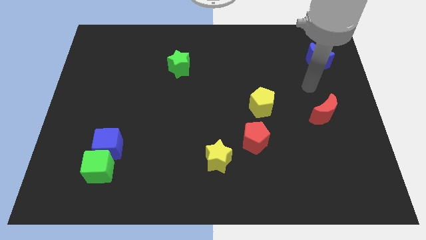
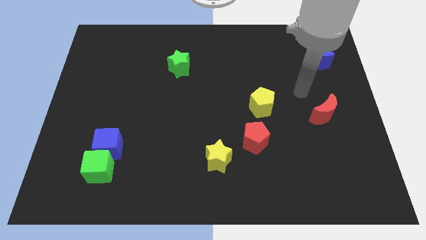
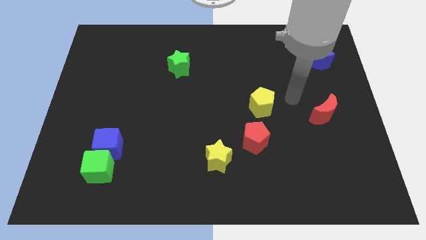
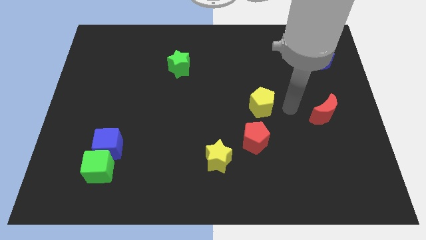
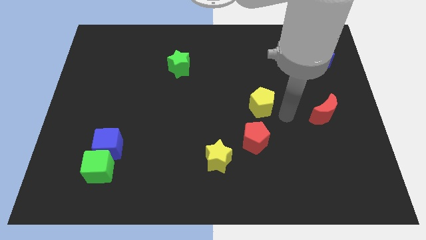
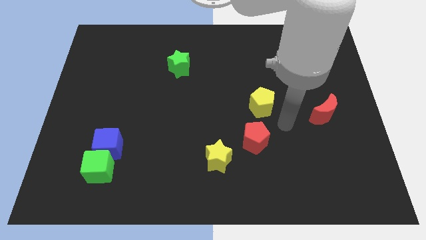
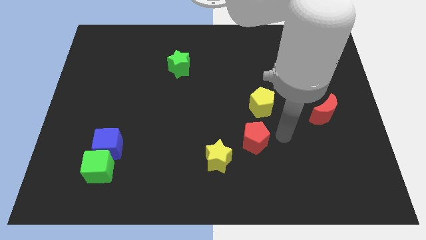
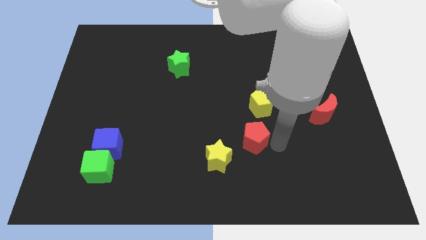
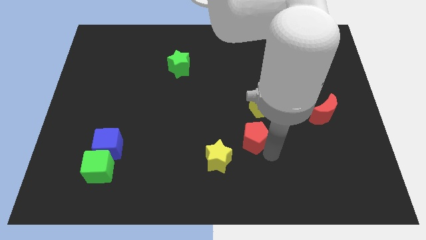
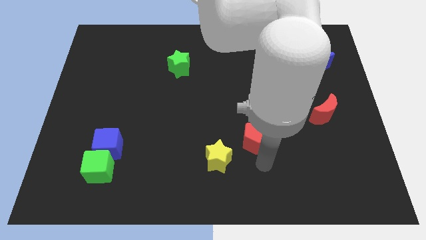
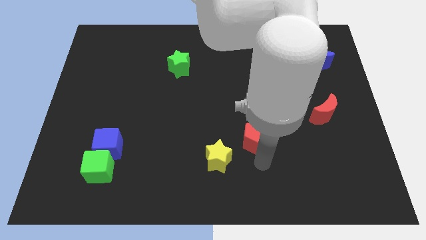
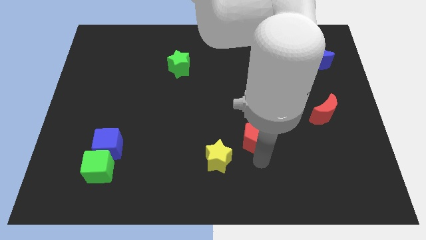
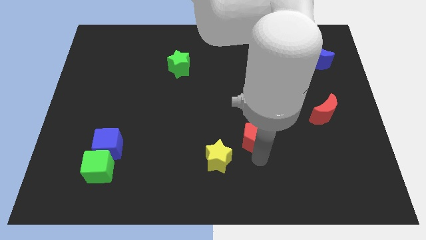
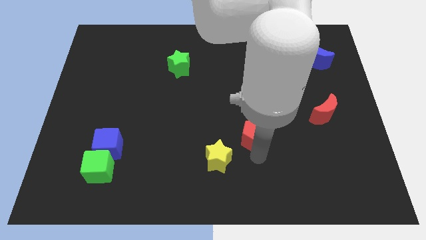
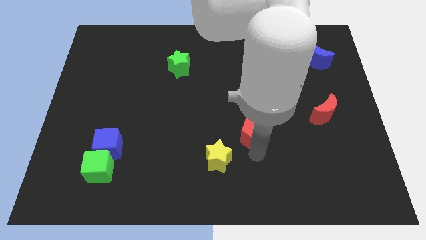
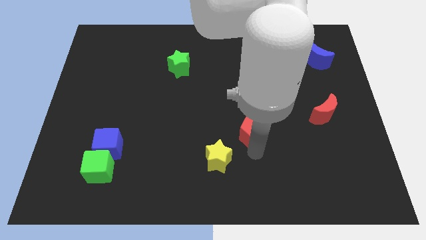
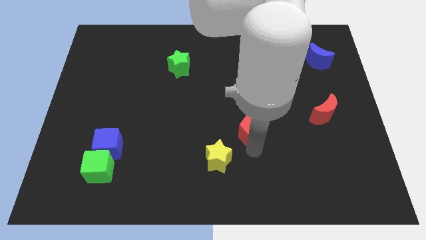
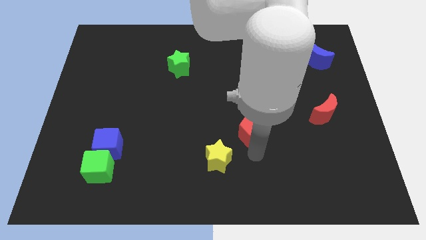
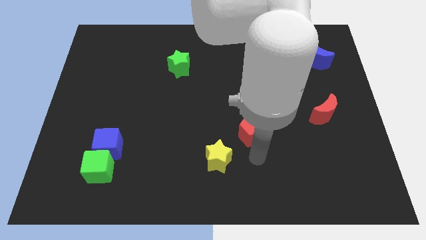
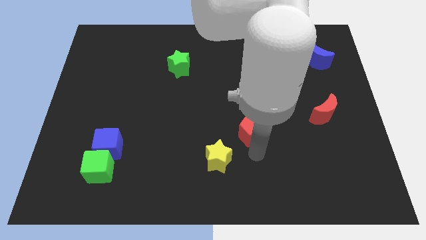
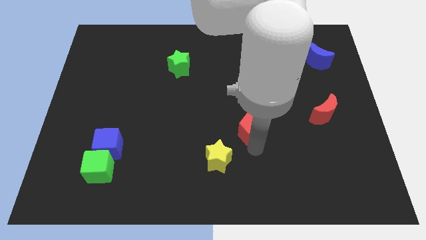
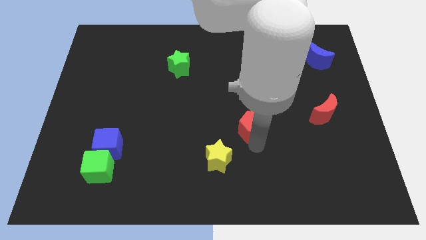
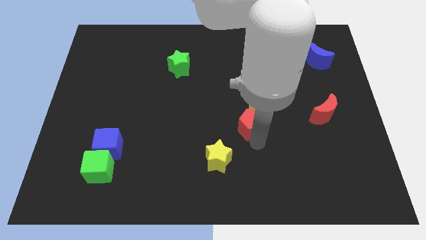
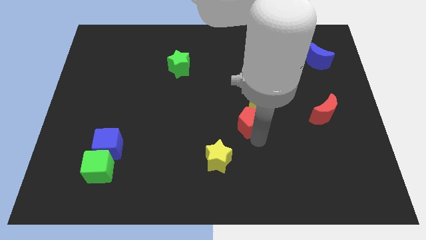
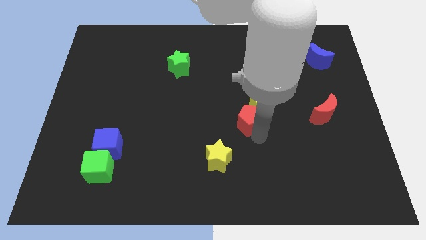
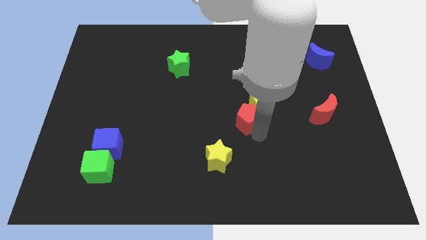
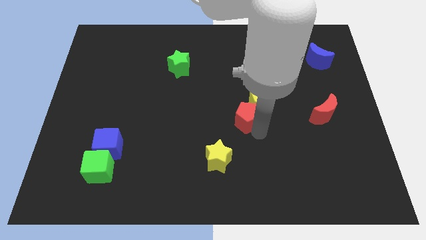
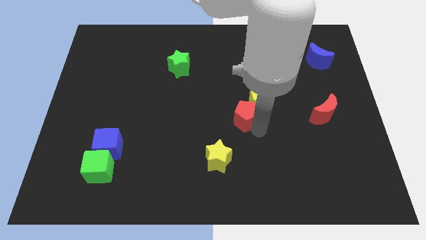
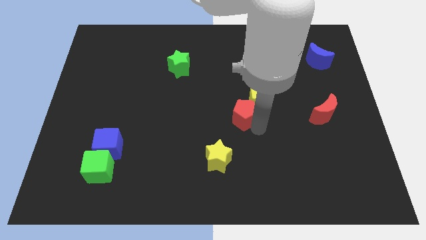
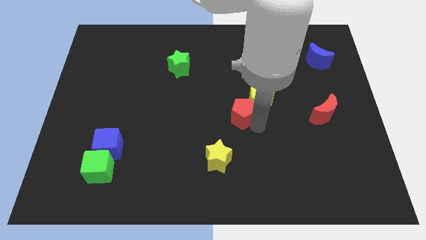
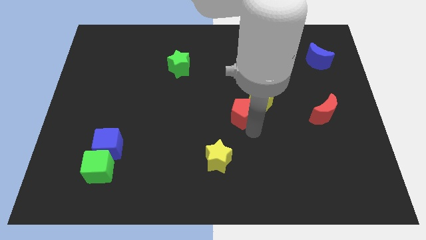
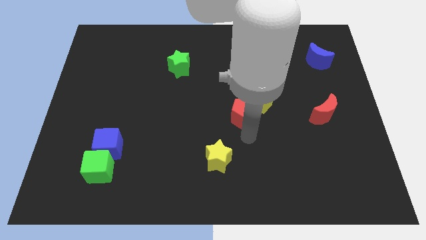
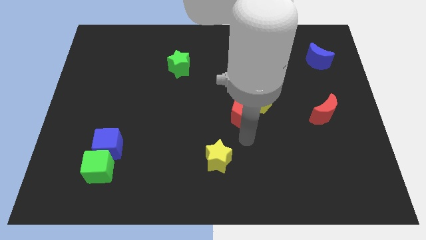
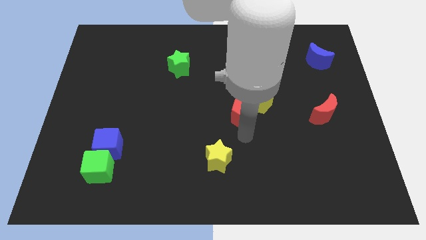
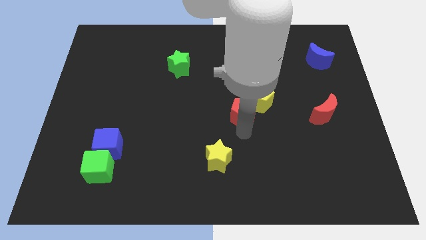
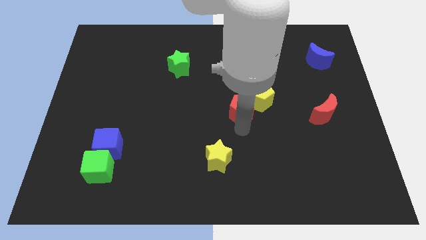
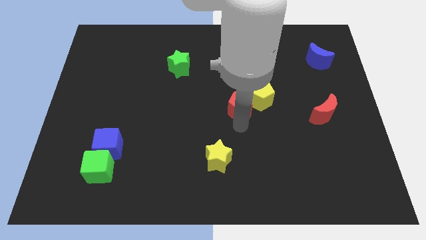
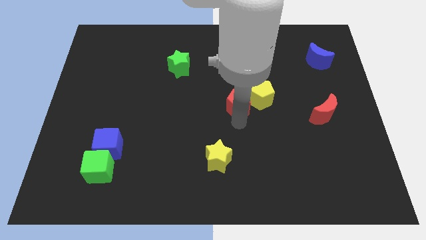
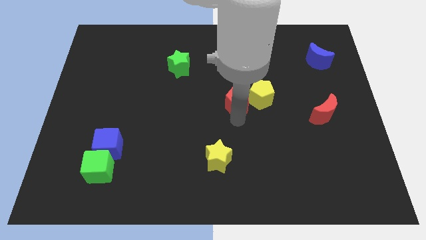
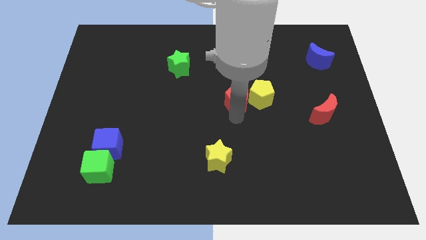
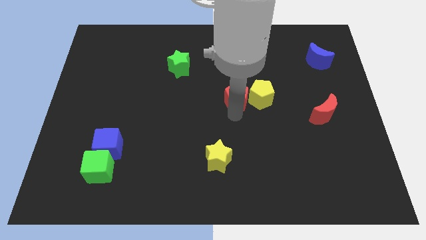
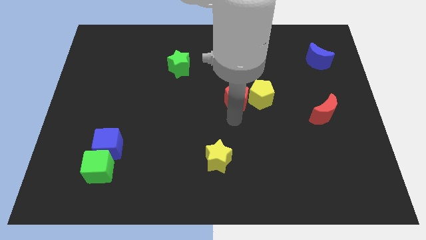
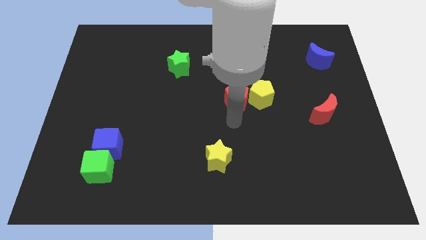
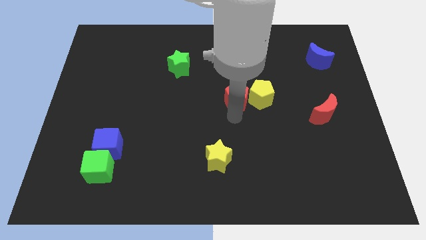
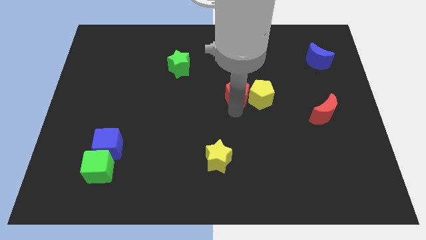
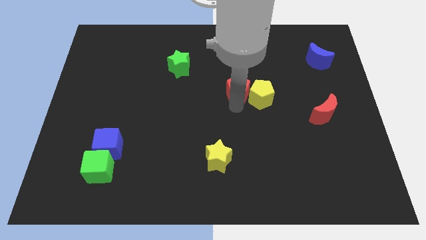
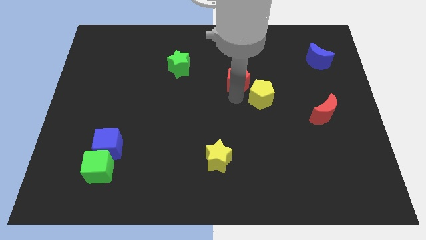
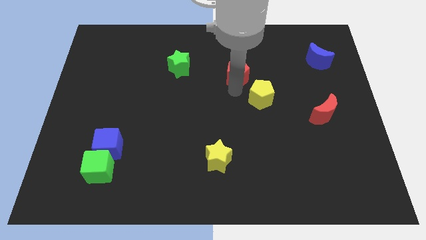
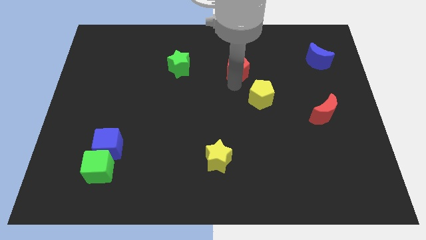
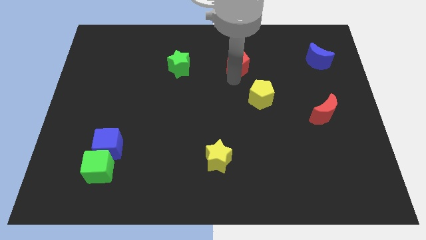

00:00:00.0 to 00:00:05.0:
move the red pentagon to the top of the yellow pentagon

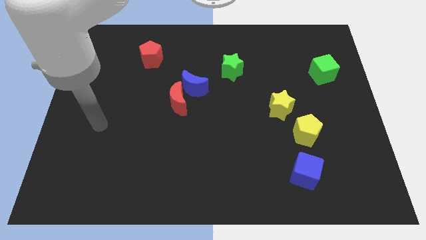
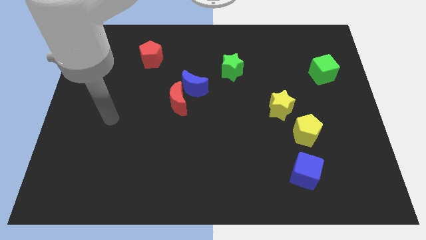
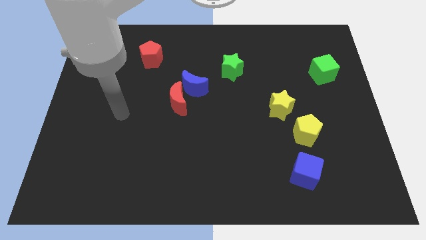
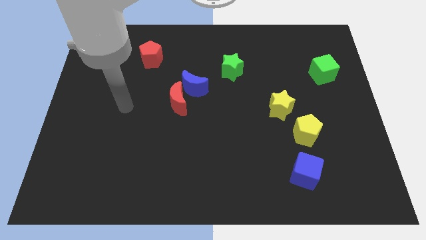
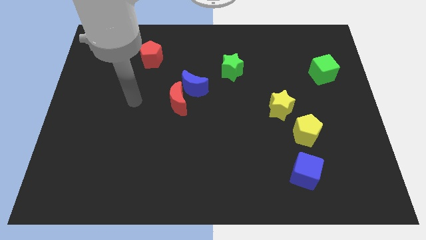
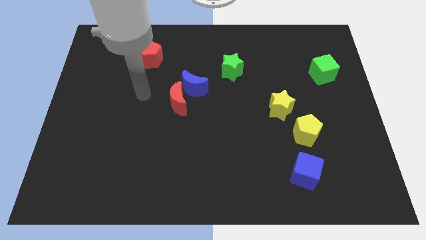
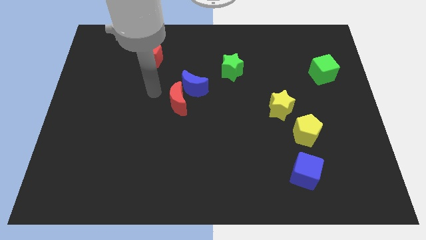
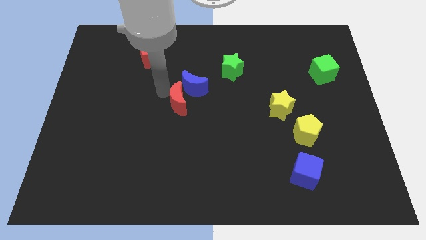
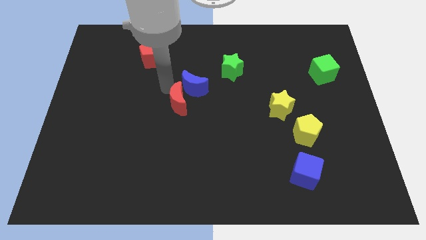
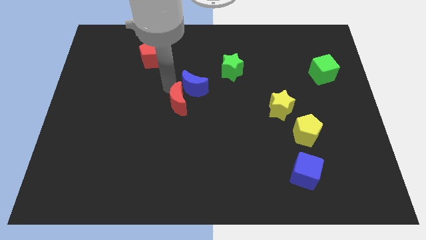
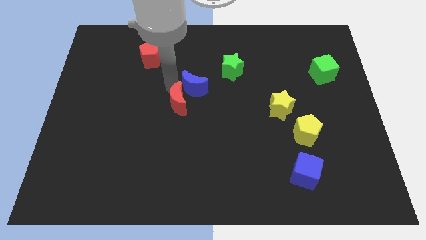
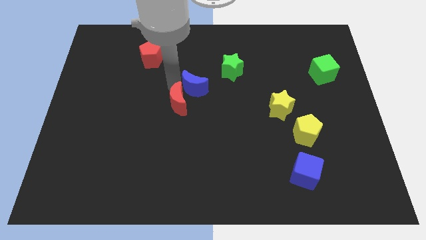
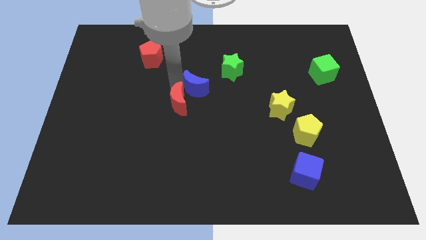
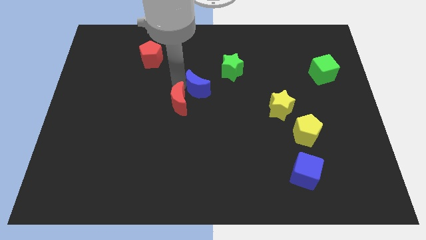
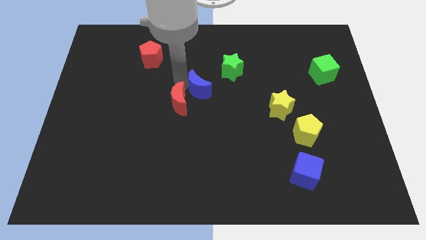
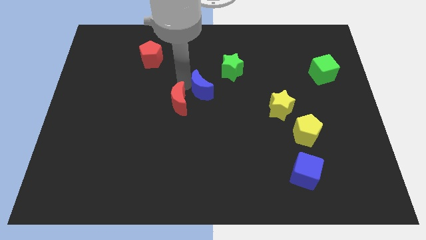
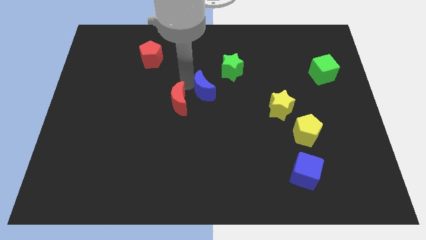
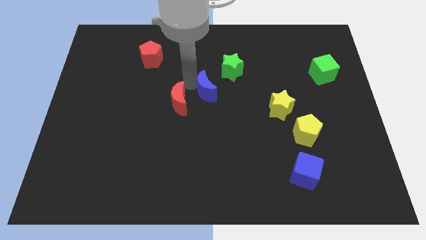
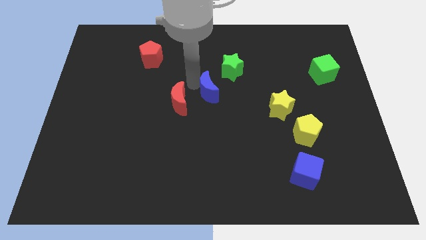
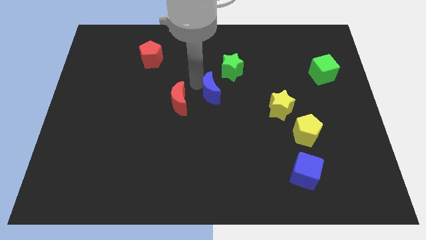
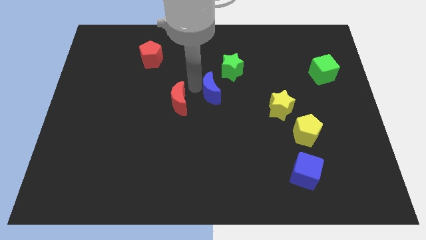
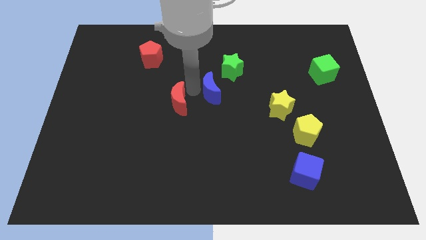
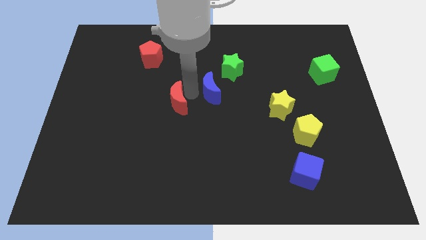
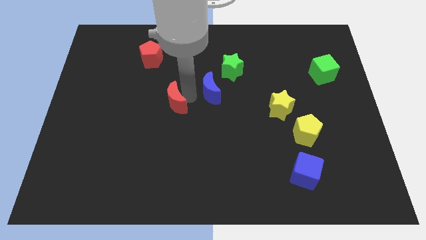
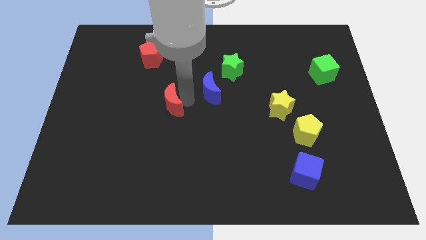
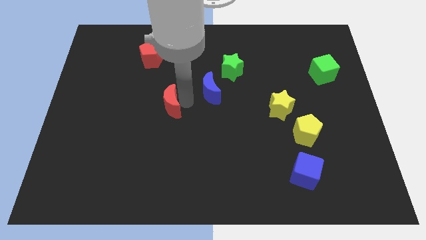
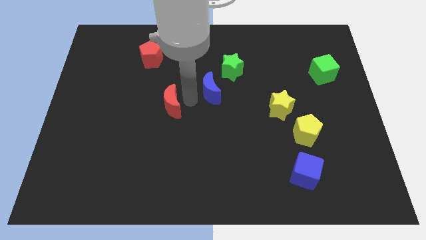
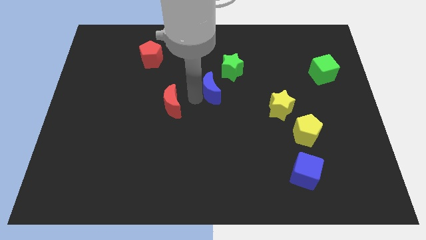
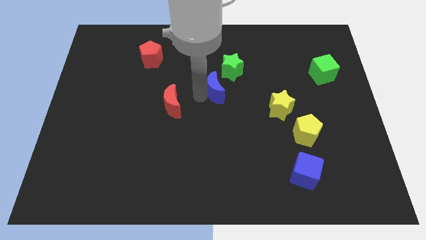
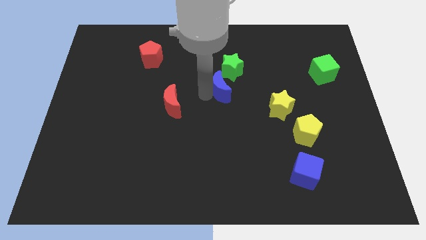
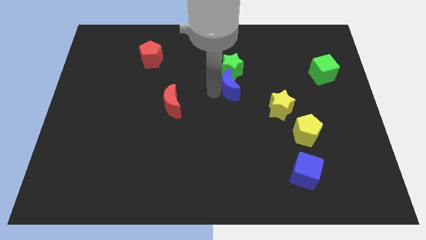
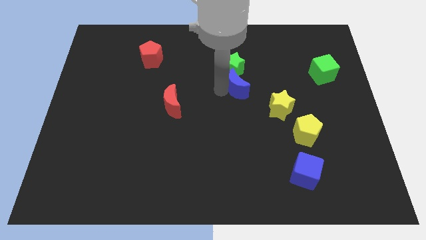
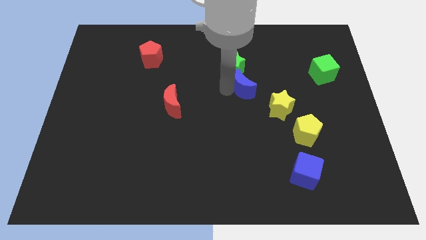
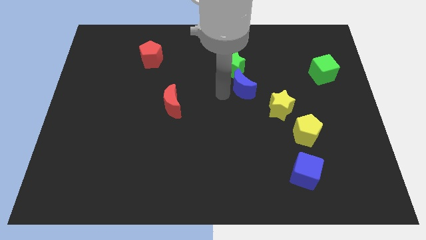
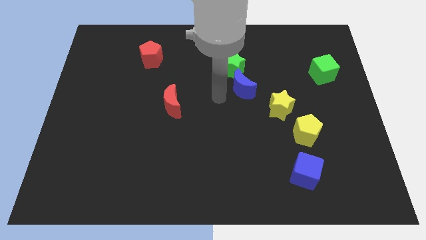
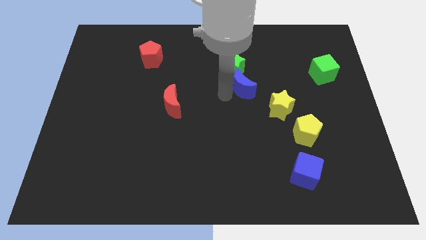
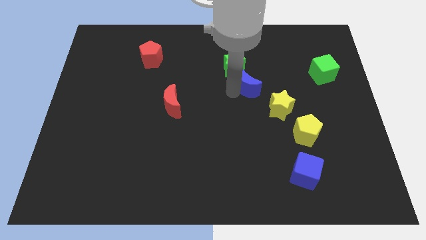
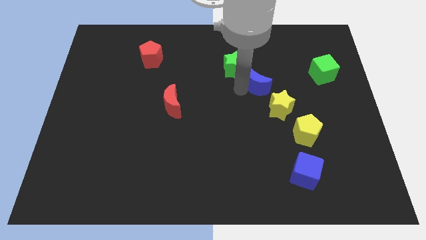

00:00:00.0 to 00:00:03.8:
slide the blue moon above the yellow star
